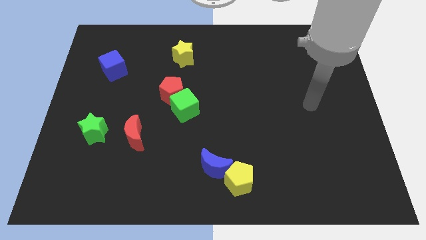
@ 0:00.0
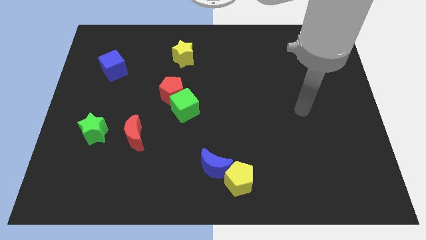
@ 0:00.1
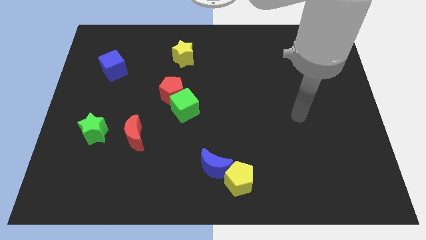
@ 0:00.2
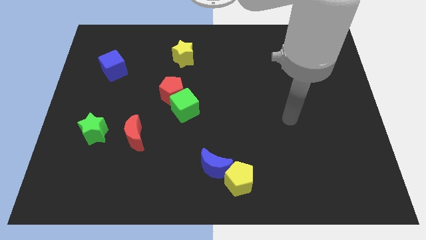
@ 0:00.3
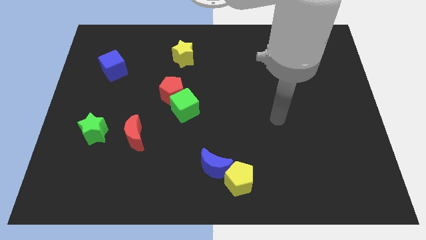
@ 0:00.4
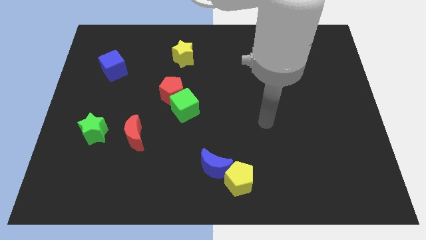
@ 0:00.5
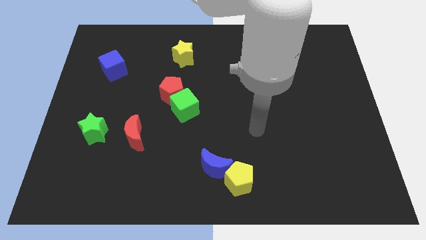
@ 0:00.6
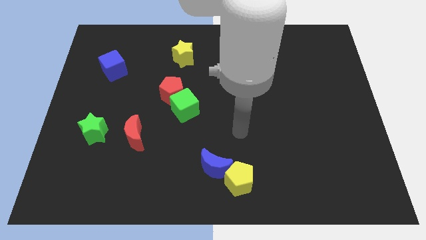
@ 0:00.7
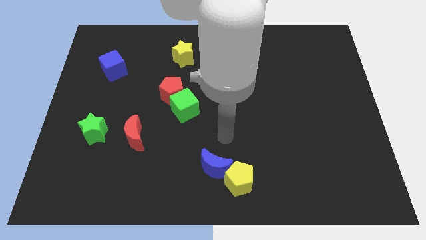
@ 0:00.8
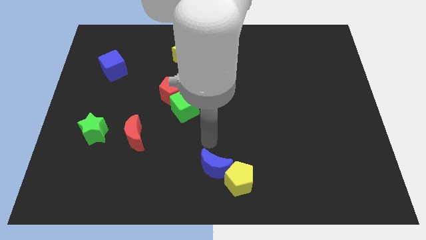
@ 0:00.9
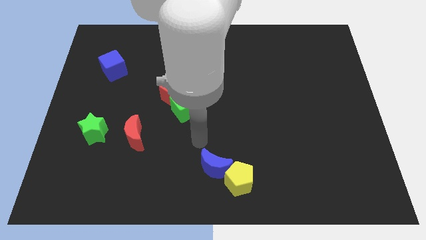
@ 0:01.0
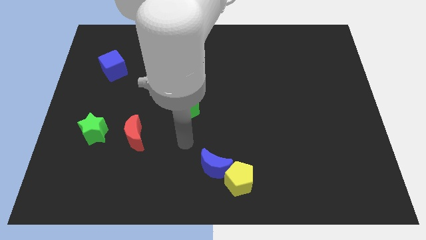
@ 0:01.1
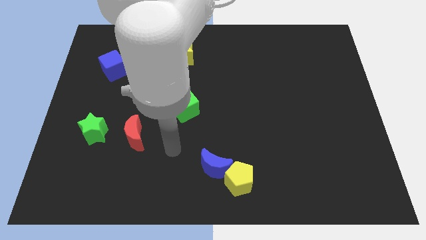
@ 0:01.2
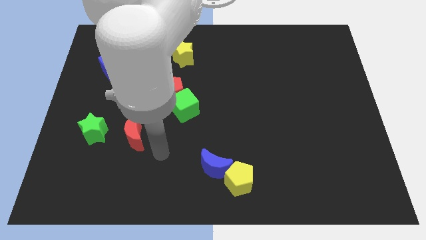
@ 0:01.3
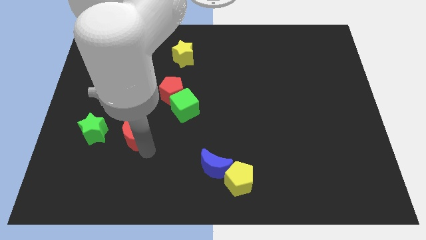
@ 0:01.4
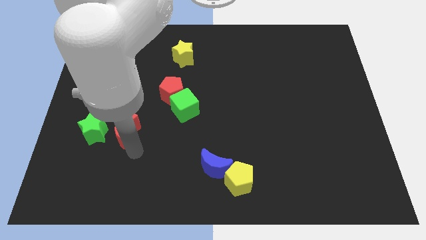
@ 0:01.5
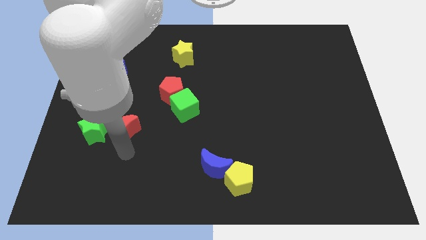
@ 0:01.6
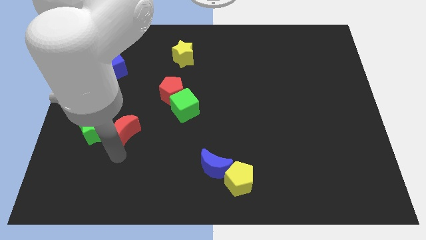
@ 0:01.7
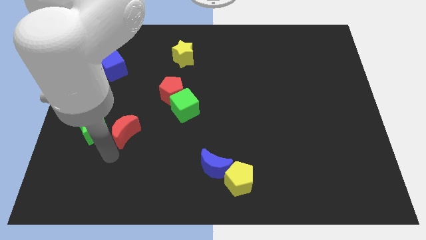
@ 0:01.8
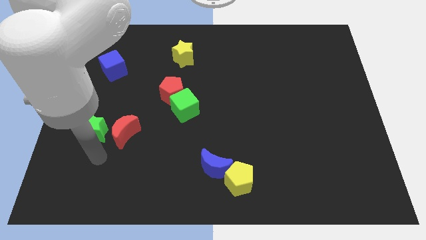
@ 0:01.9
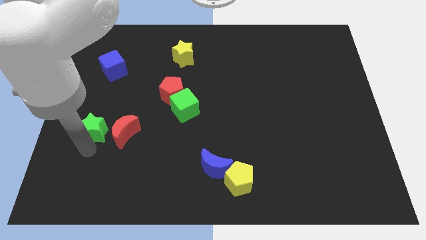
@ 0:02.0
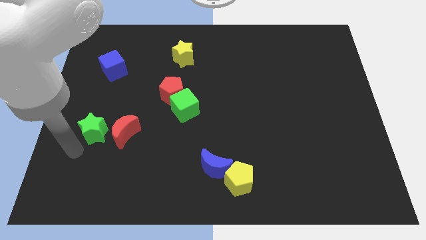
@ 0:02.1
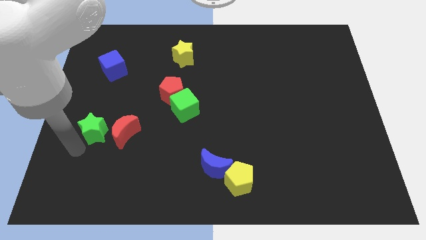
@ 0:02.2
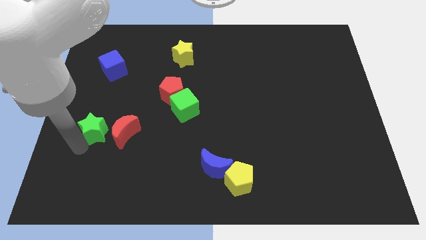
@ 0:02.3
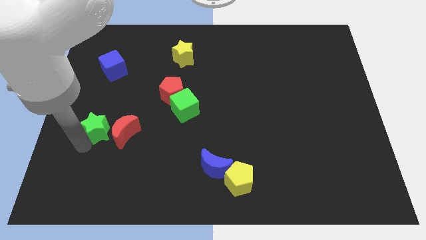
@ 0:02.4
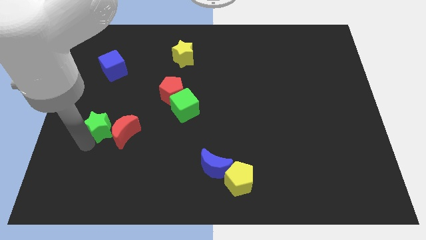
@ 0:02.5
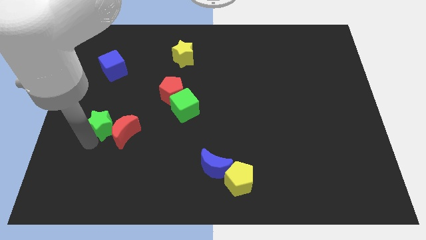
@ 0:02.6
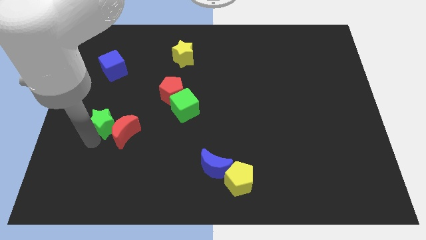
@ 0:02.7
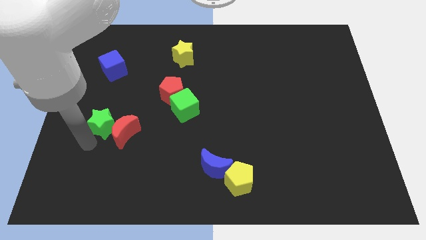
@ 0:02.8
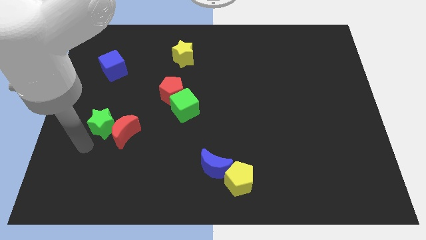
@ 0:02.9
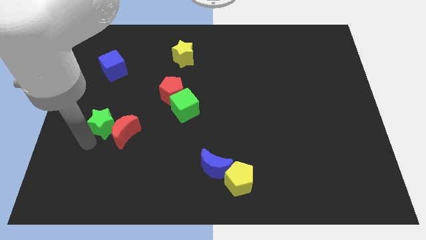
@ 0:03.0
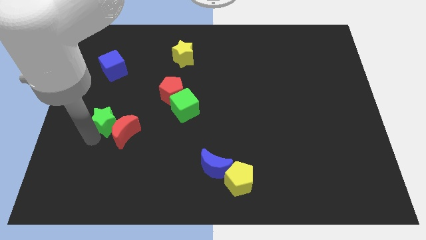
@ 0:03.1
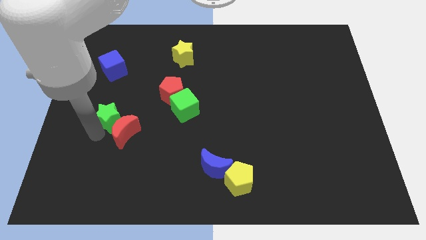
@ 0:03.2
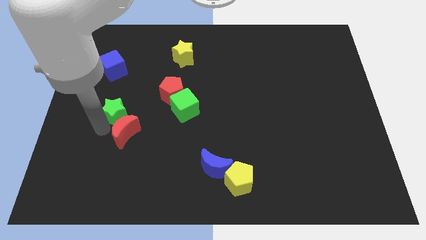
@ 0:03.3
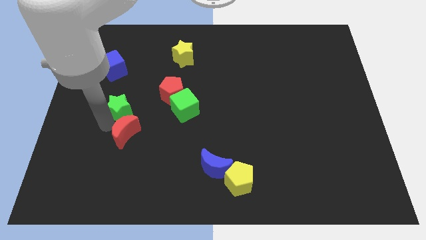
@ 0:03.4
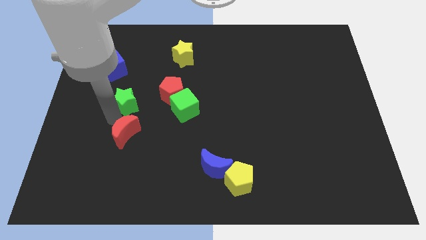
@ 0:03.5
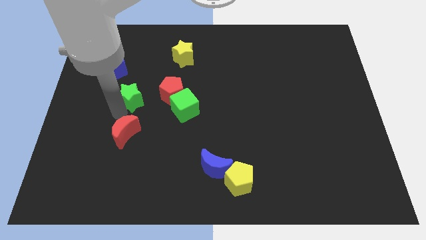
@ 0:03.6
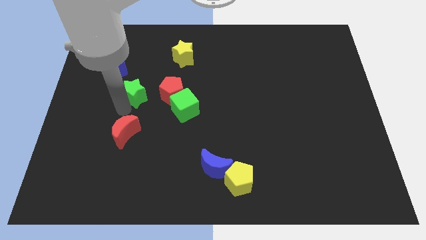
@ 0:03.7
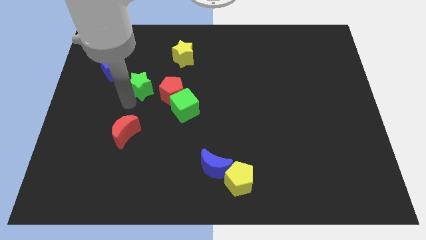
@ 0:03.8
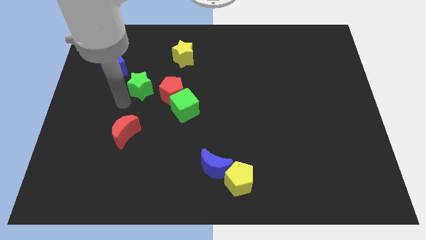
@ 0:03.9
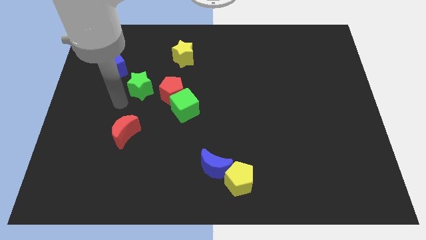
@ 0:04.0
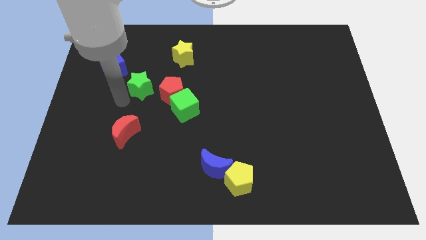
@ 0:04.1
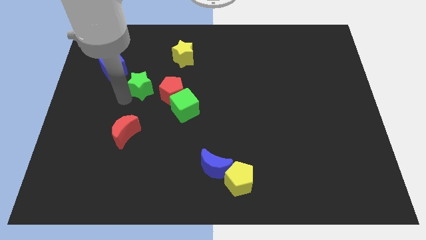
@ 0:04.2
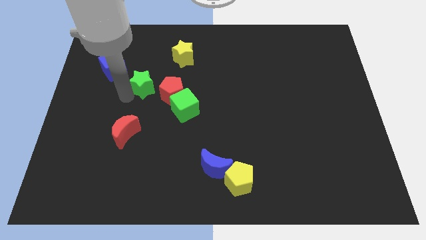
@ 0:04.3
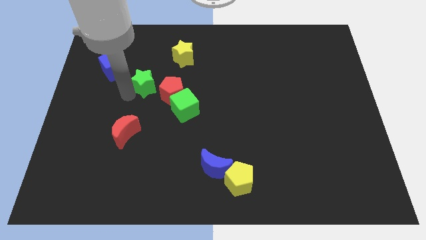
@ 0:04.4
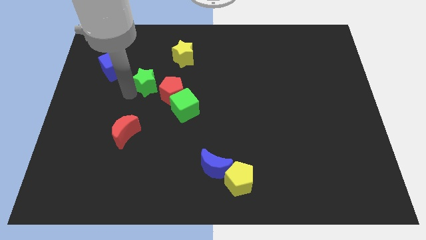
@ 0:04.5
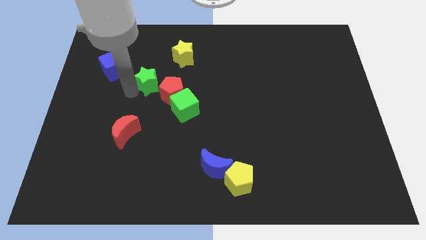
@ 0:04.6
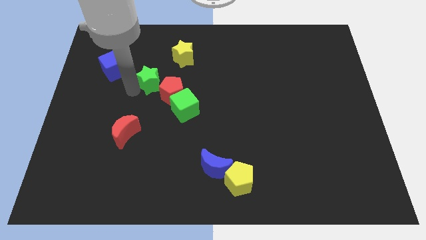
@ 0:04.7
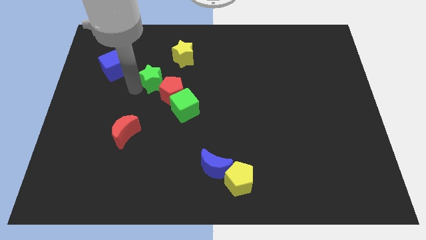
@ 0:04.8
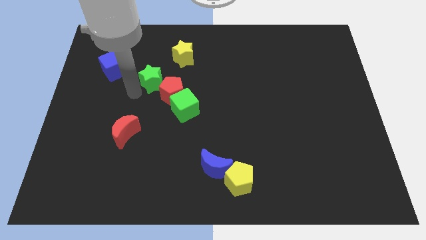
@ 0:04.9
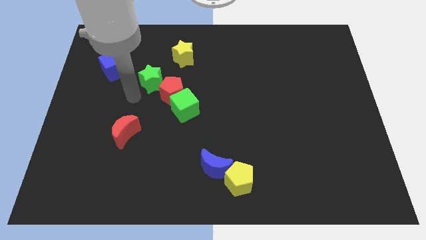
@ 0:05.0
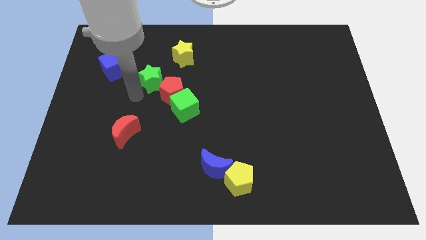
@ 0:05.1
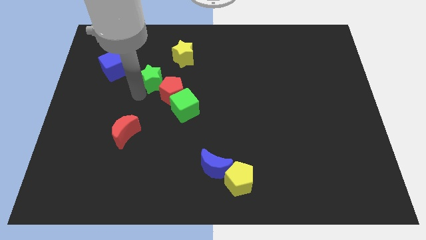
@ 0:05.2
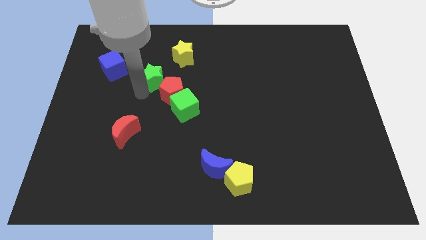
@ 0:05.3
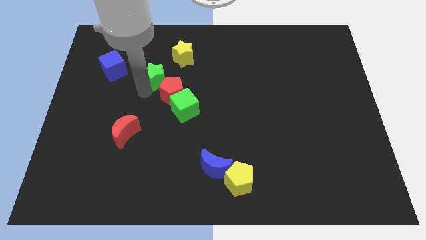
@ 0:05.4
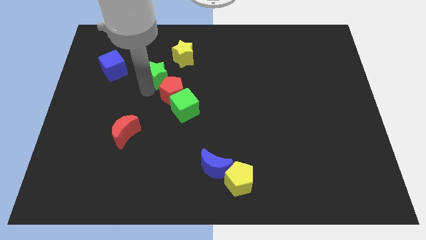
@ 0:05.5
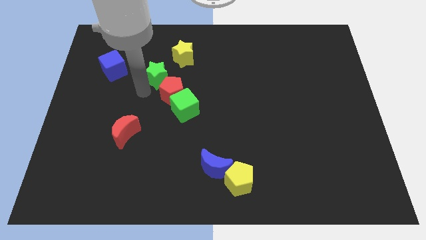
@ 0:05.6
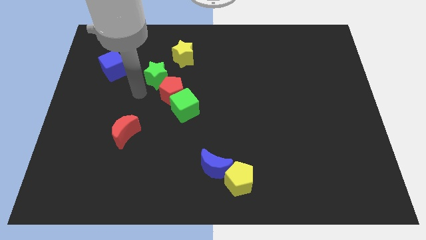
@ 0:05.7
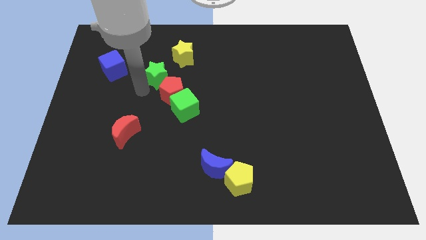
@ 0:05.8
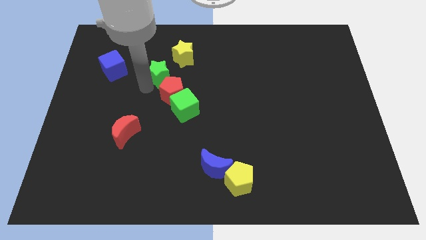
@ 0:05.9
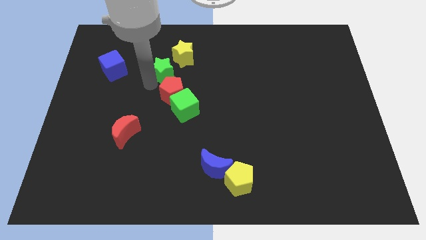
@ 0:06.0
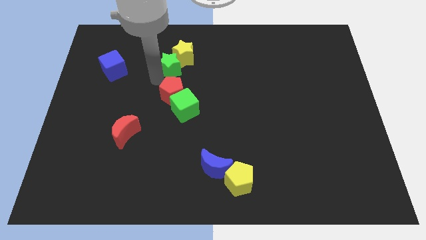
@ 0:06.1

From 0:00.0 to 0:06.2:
slide the green star close to the yellow star

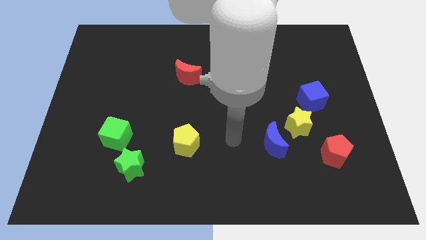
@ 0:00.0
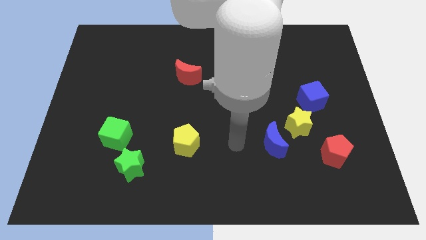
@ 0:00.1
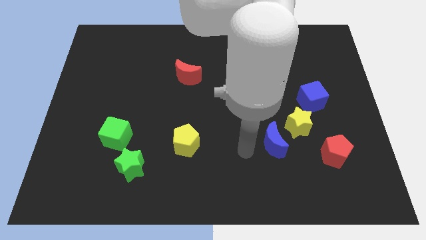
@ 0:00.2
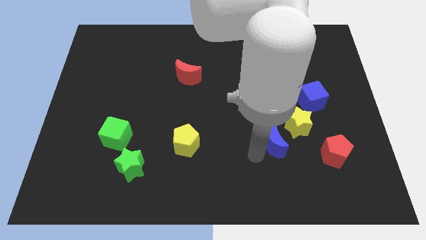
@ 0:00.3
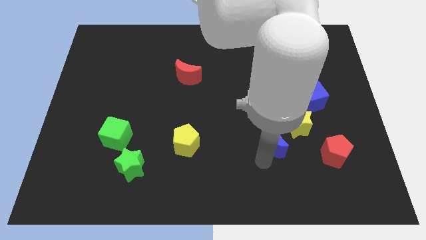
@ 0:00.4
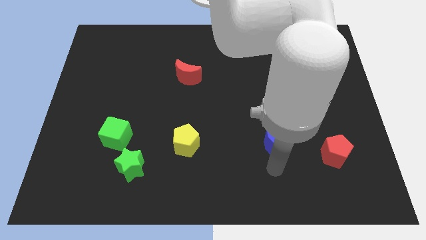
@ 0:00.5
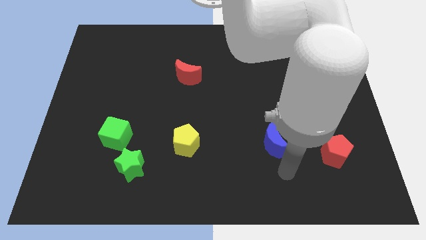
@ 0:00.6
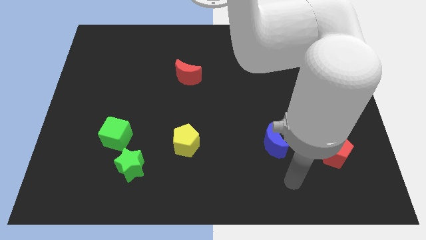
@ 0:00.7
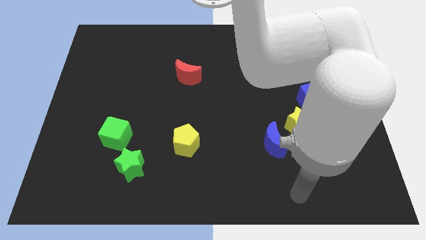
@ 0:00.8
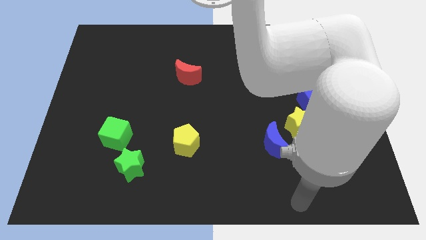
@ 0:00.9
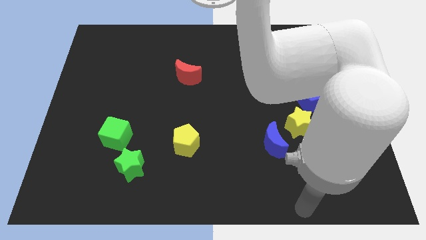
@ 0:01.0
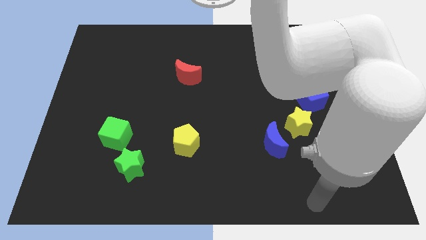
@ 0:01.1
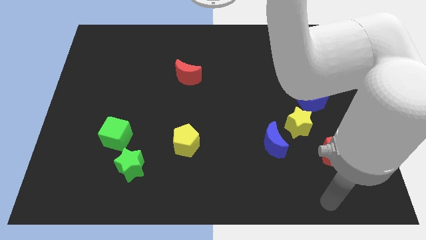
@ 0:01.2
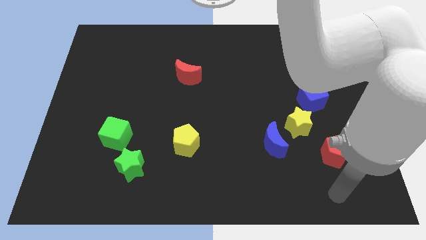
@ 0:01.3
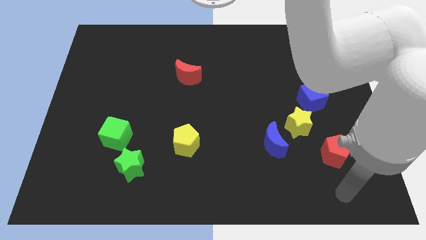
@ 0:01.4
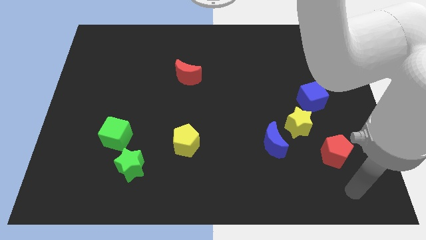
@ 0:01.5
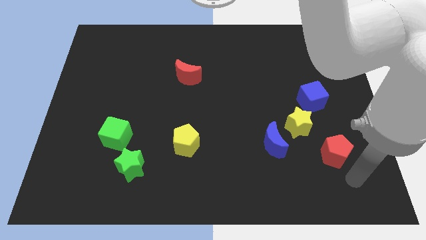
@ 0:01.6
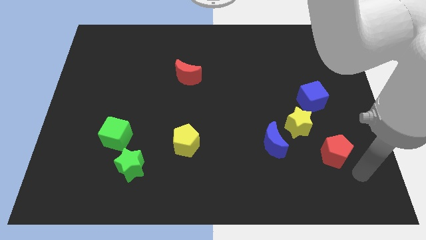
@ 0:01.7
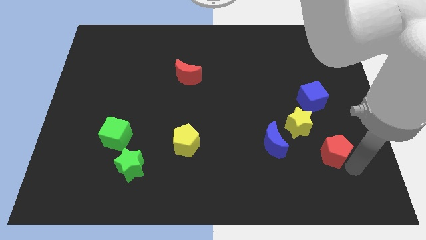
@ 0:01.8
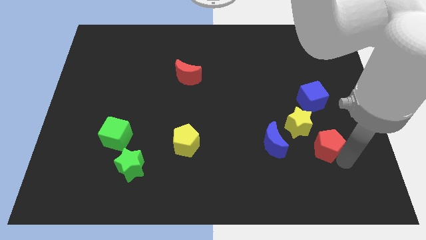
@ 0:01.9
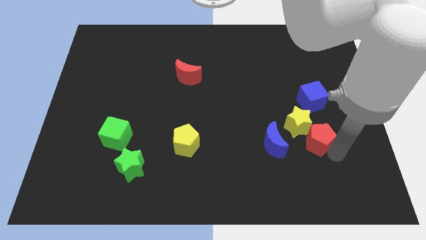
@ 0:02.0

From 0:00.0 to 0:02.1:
push the red pentagon to the yellow star
